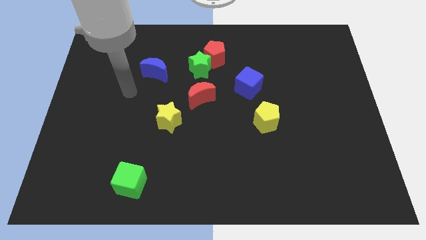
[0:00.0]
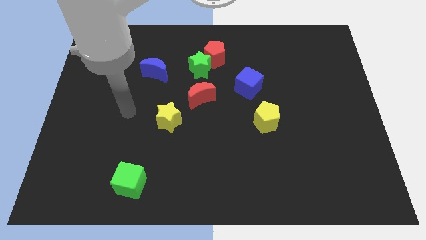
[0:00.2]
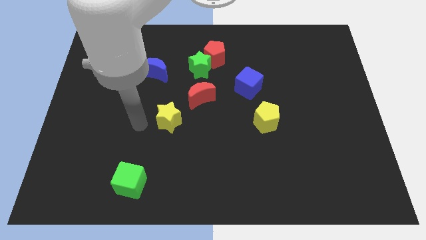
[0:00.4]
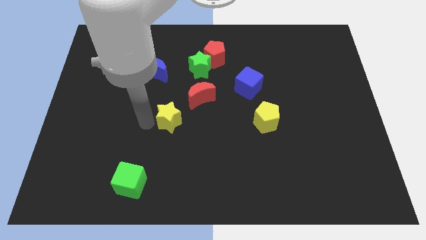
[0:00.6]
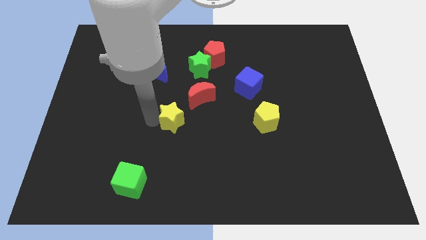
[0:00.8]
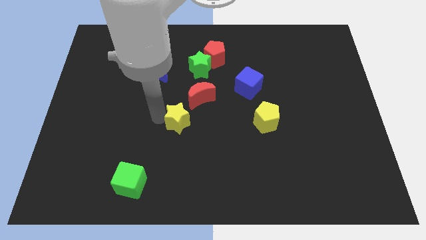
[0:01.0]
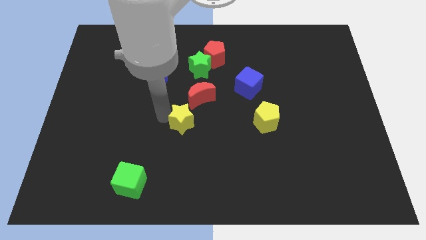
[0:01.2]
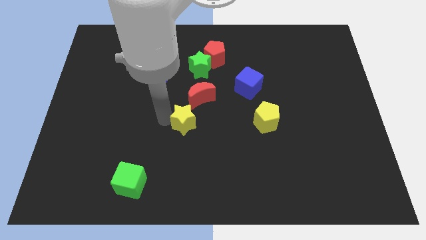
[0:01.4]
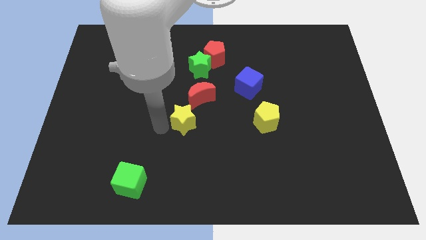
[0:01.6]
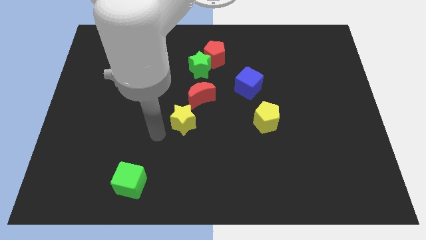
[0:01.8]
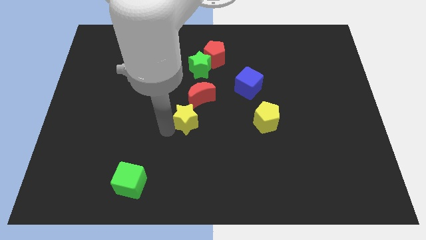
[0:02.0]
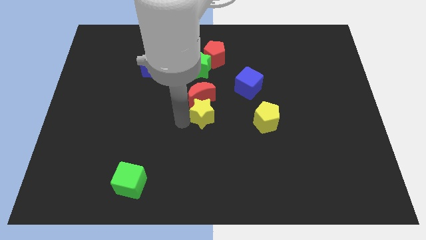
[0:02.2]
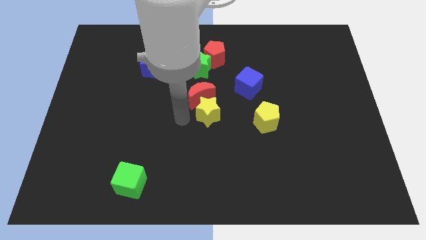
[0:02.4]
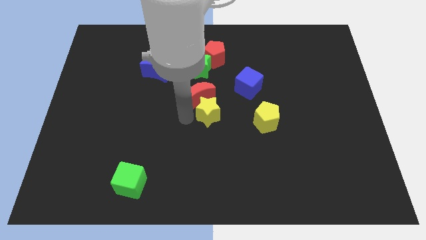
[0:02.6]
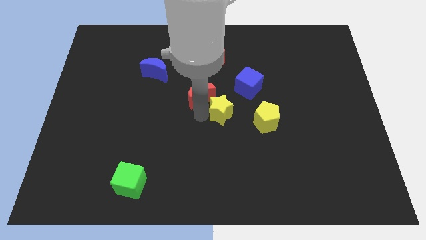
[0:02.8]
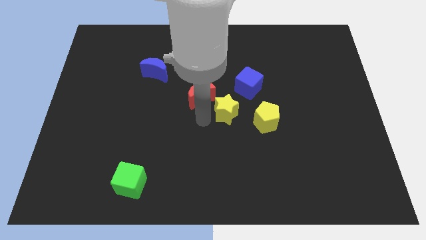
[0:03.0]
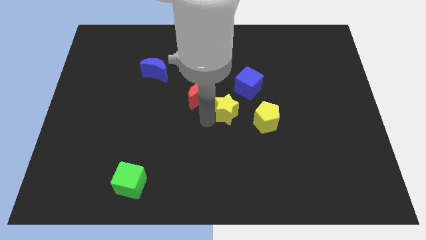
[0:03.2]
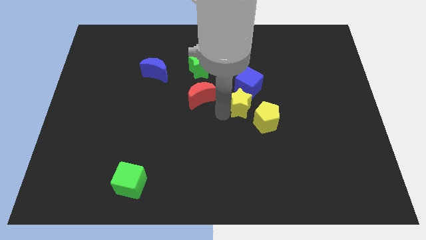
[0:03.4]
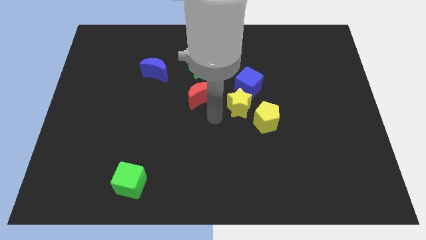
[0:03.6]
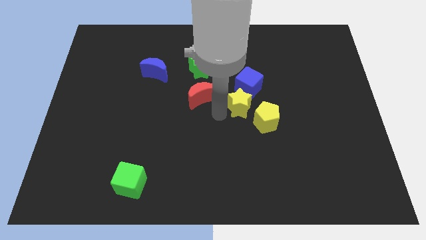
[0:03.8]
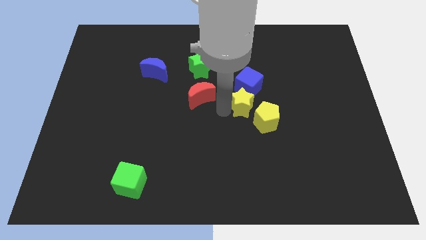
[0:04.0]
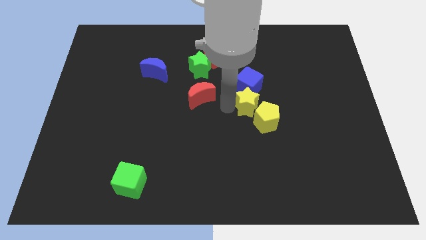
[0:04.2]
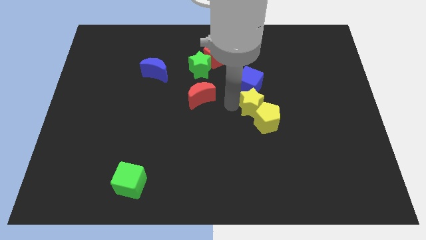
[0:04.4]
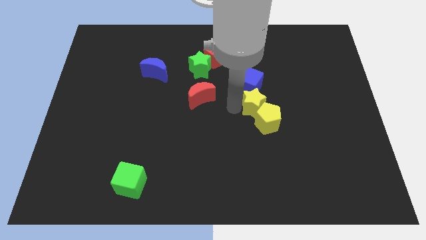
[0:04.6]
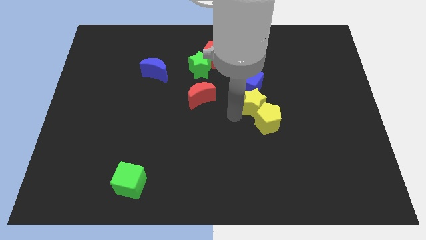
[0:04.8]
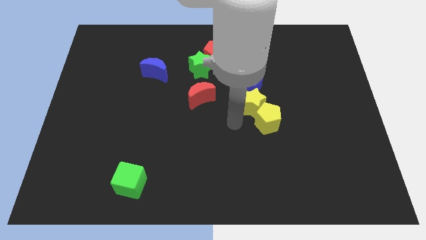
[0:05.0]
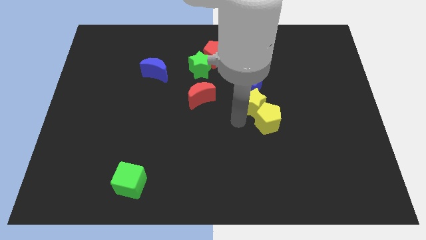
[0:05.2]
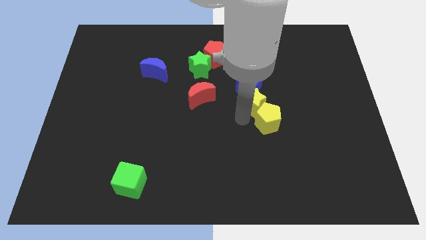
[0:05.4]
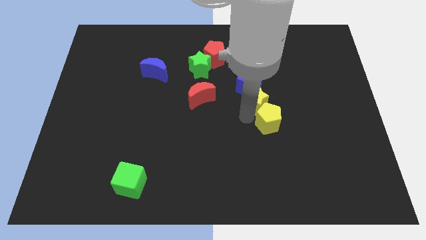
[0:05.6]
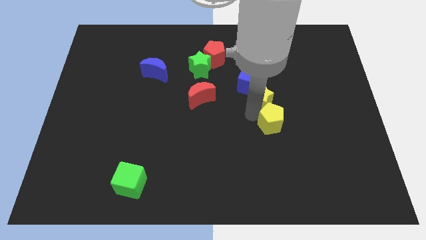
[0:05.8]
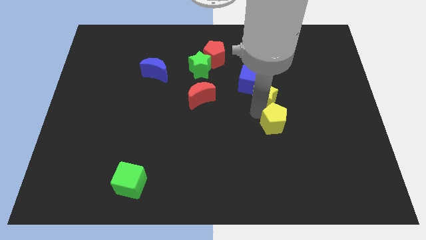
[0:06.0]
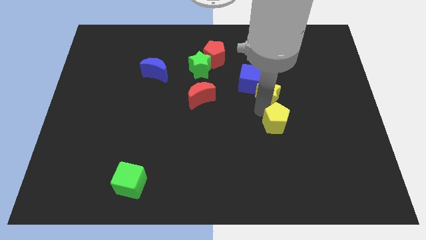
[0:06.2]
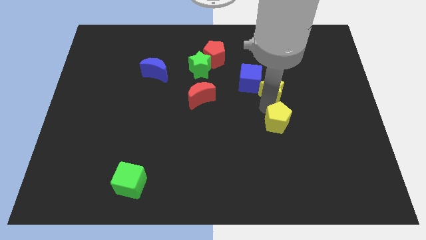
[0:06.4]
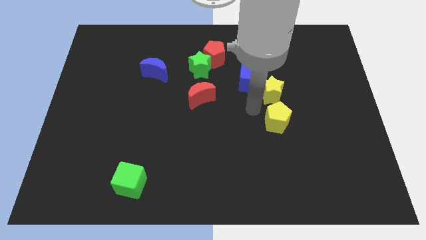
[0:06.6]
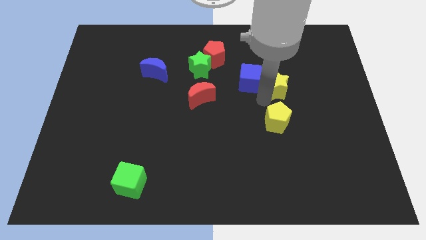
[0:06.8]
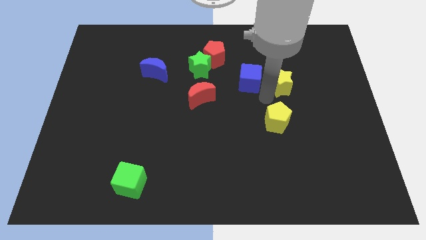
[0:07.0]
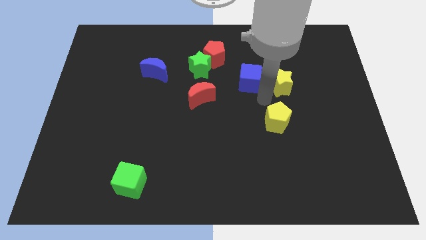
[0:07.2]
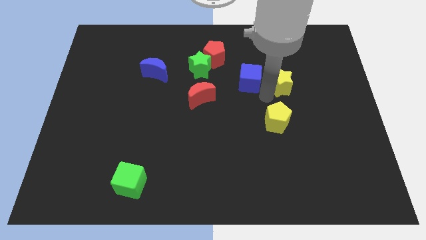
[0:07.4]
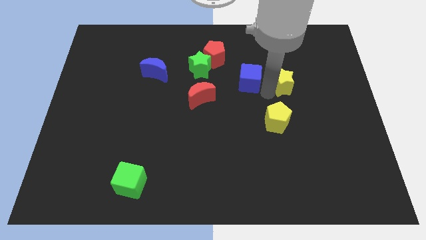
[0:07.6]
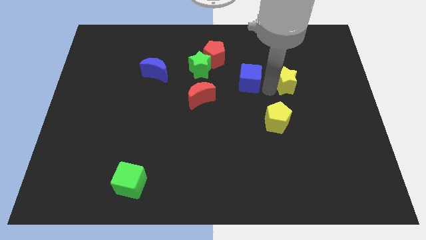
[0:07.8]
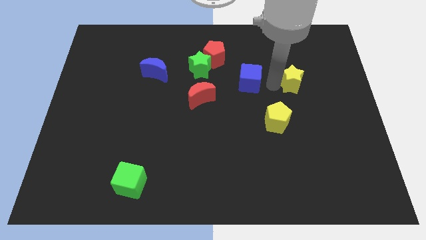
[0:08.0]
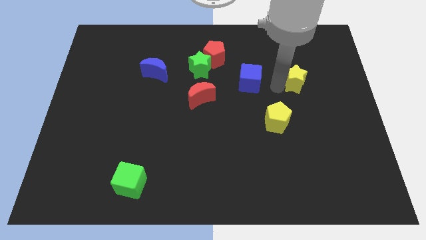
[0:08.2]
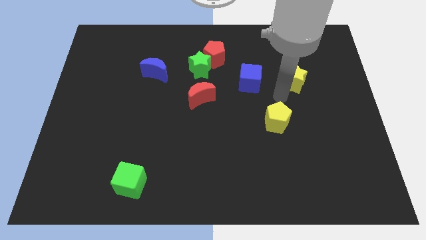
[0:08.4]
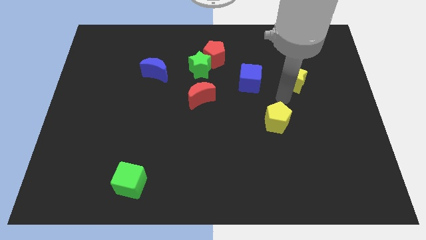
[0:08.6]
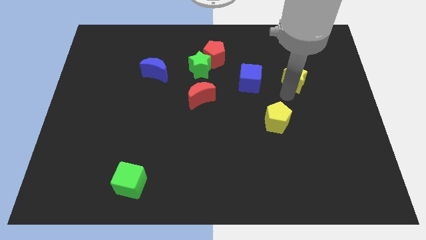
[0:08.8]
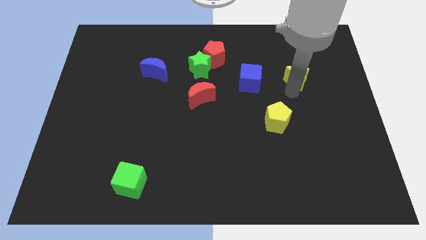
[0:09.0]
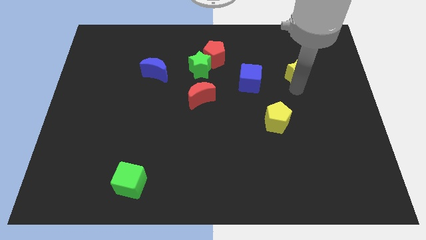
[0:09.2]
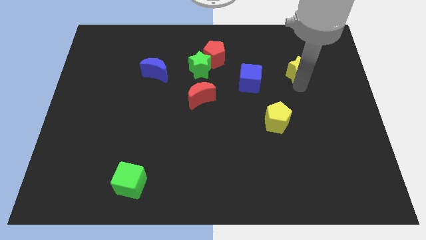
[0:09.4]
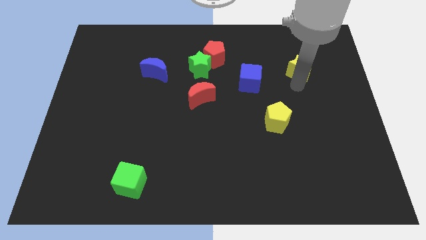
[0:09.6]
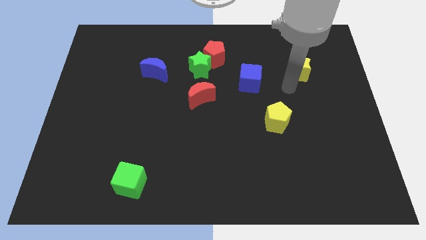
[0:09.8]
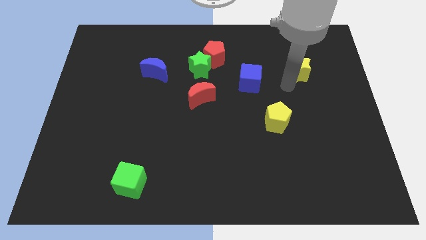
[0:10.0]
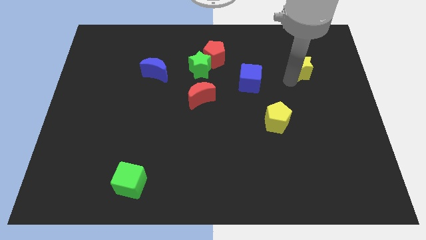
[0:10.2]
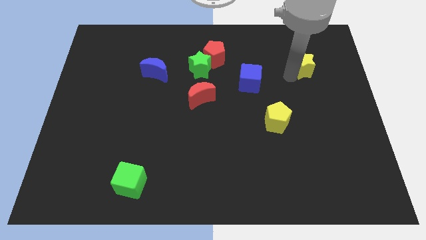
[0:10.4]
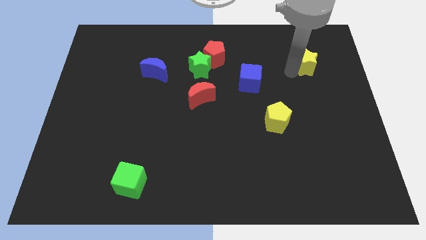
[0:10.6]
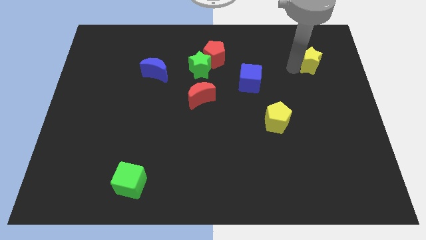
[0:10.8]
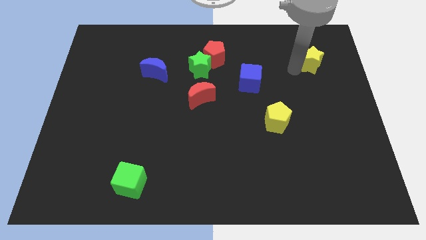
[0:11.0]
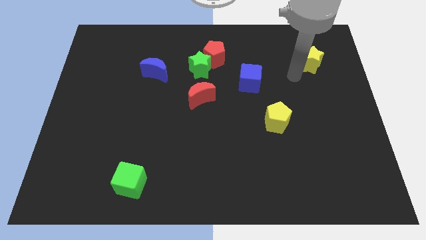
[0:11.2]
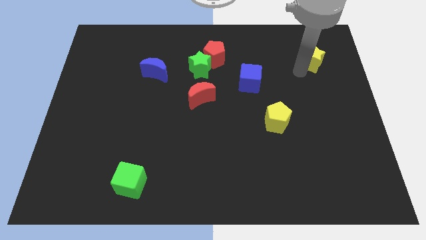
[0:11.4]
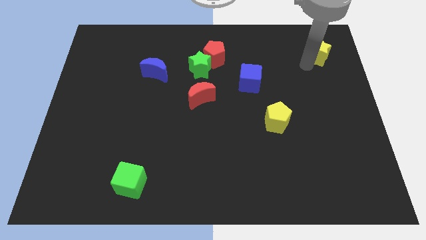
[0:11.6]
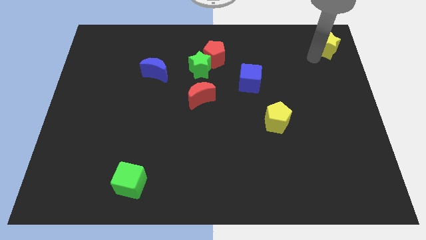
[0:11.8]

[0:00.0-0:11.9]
move the yellow star to the top right of the board

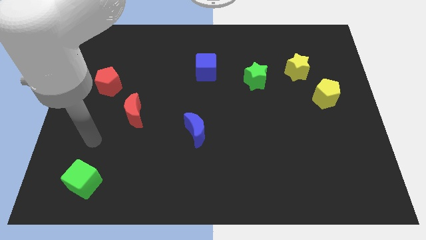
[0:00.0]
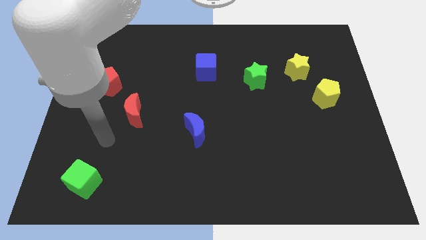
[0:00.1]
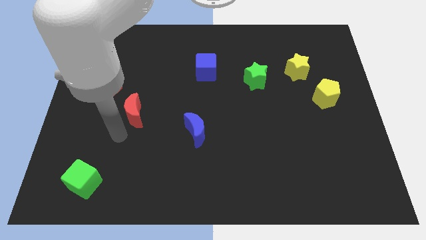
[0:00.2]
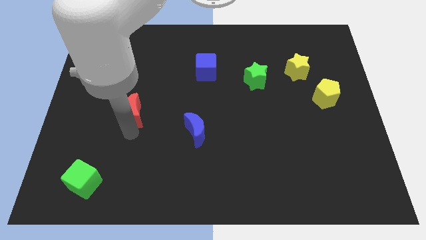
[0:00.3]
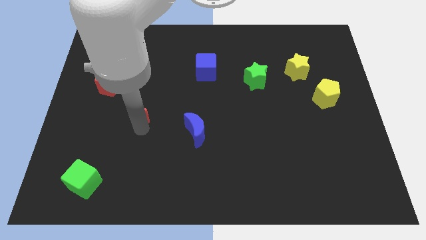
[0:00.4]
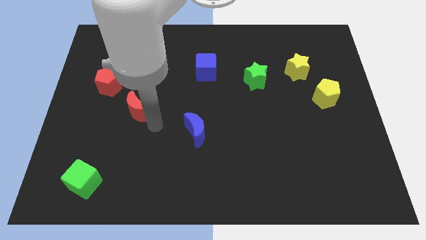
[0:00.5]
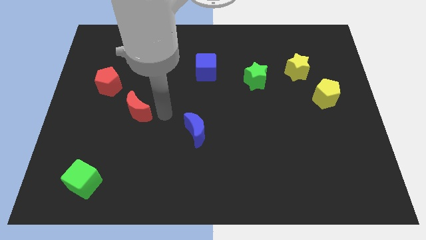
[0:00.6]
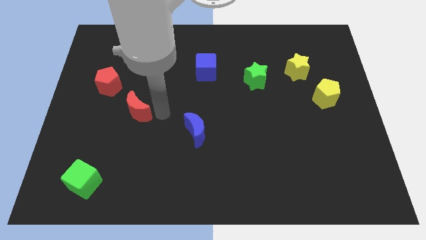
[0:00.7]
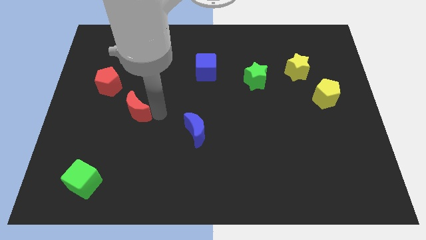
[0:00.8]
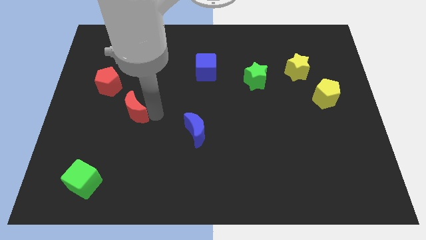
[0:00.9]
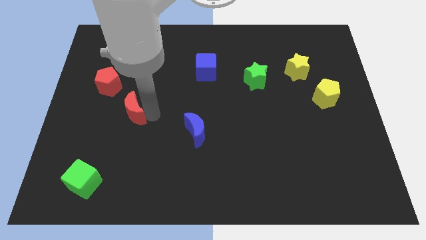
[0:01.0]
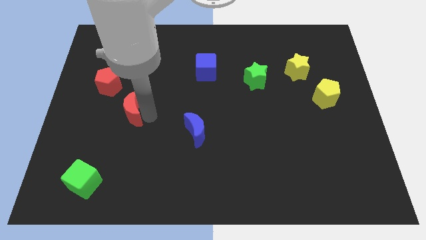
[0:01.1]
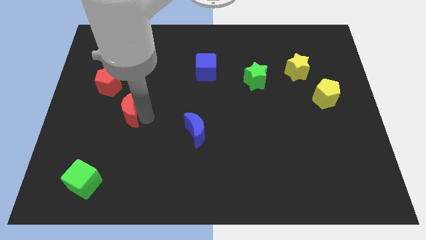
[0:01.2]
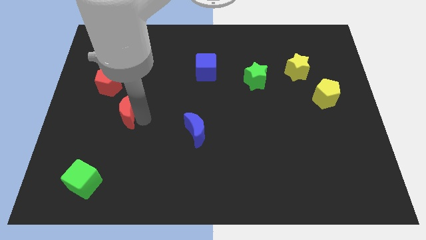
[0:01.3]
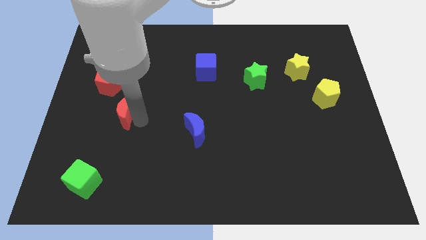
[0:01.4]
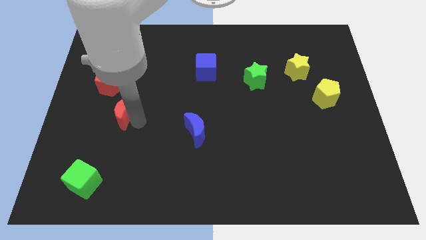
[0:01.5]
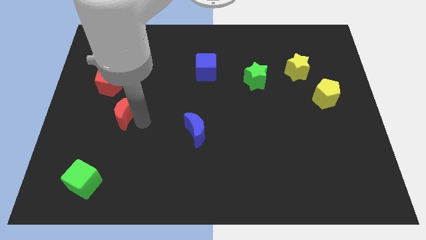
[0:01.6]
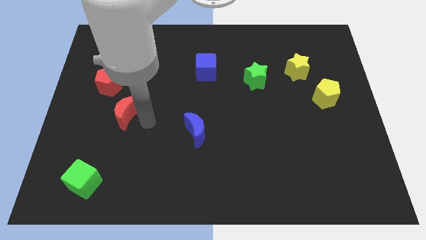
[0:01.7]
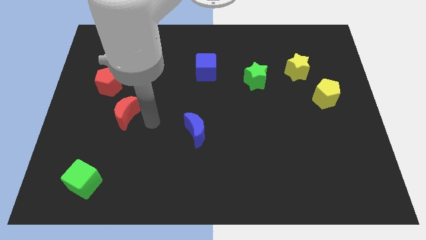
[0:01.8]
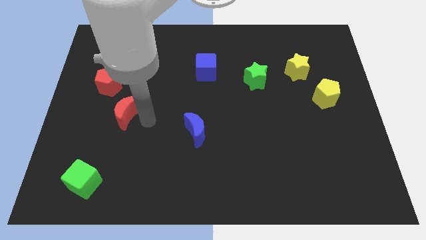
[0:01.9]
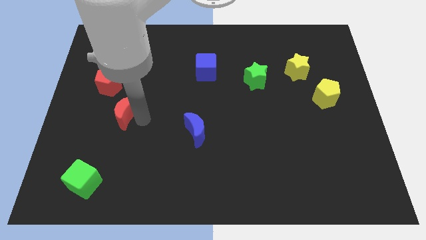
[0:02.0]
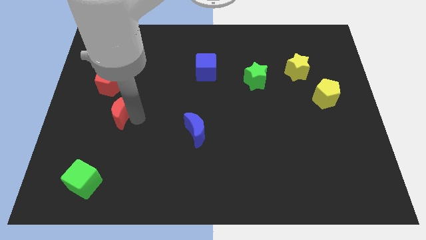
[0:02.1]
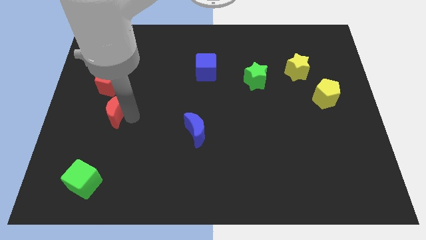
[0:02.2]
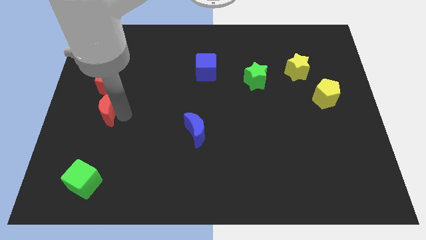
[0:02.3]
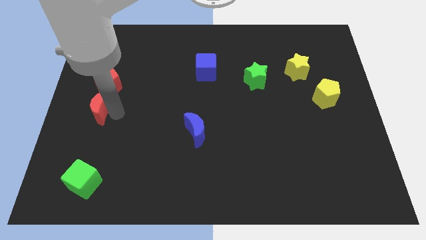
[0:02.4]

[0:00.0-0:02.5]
slide the red moon to the center left
